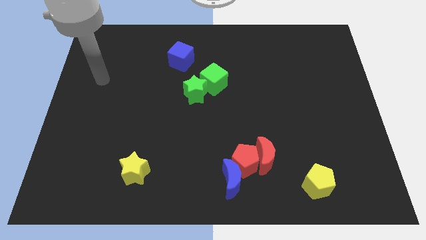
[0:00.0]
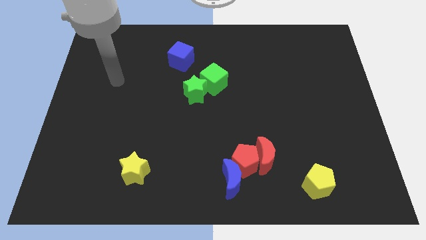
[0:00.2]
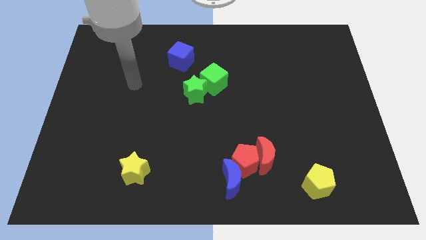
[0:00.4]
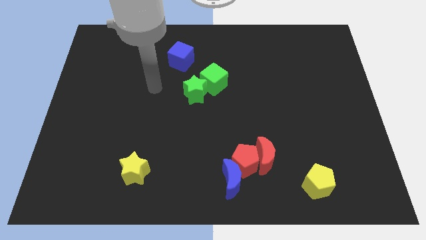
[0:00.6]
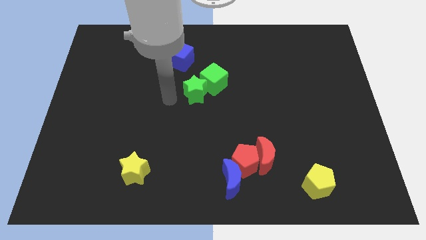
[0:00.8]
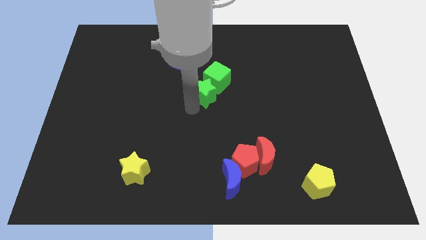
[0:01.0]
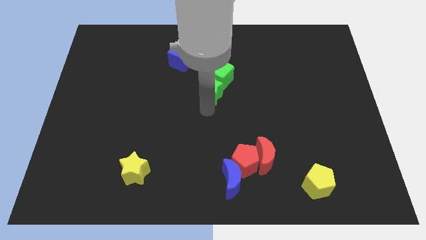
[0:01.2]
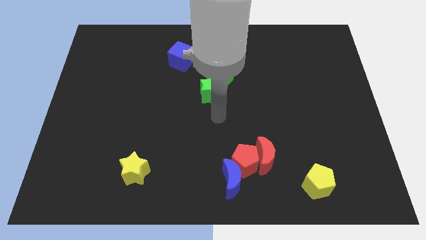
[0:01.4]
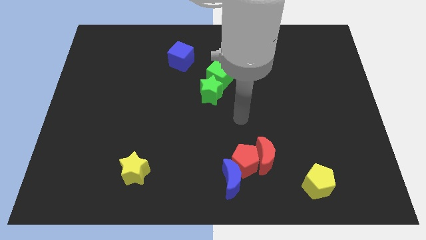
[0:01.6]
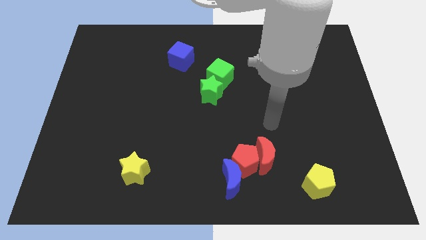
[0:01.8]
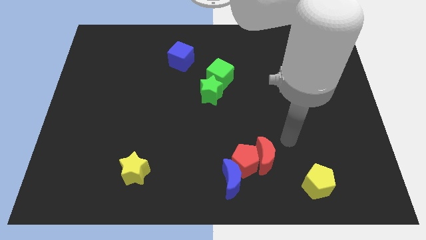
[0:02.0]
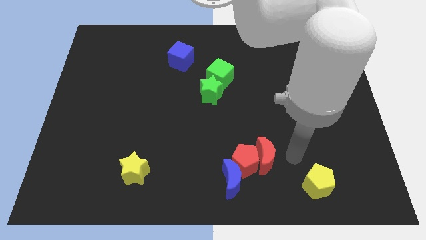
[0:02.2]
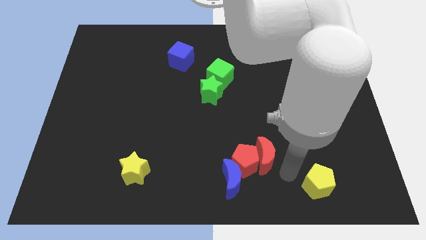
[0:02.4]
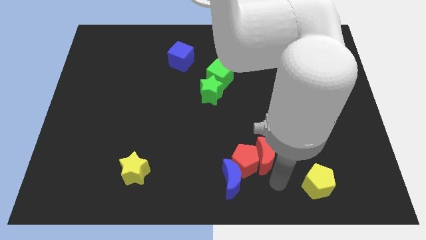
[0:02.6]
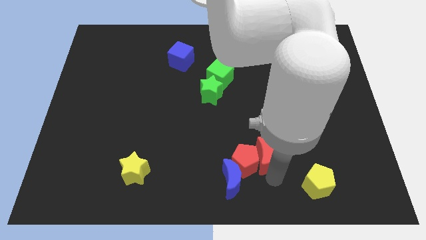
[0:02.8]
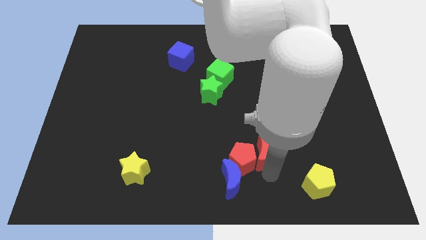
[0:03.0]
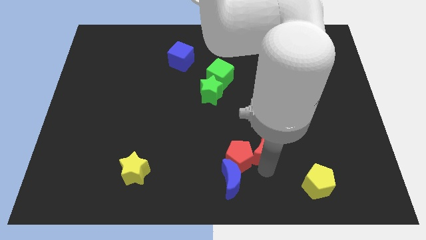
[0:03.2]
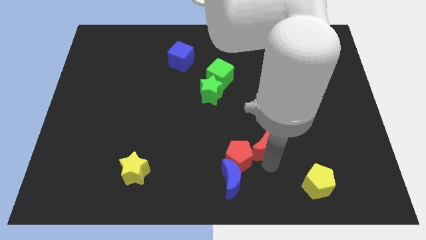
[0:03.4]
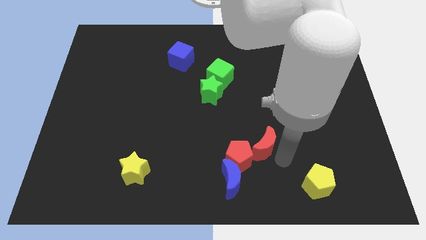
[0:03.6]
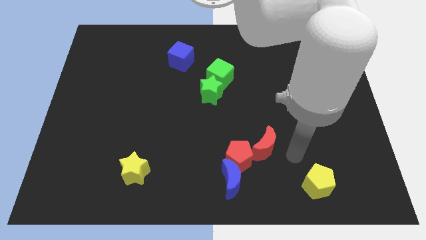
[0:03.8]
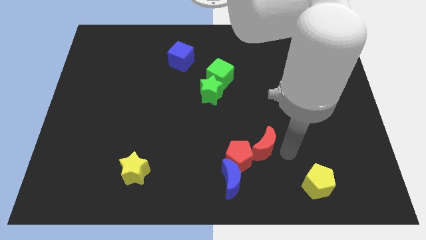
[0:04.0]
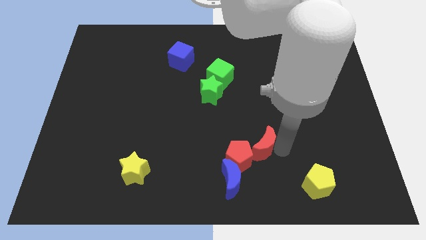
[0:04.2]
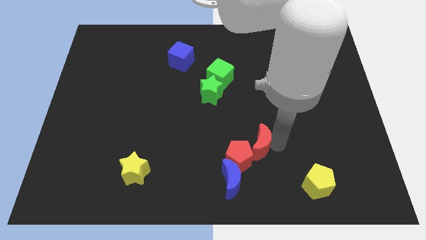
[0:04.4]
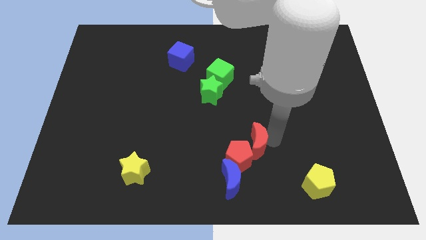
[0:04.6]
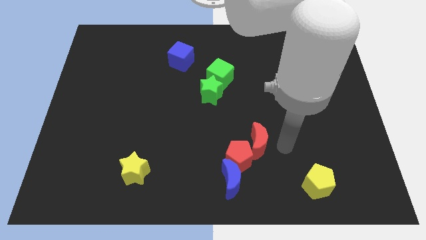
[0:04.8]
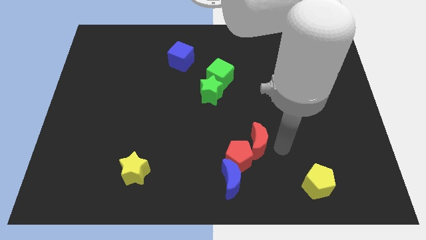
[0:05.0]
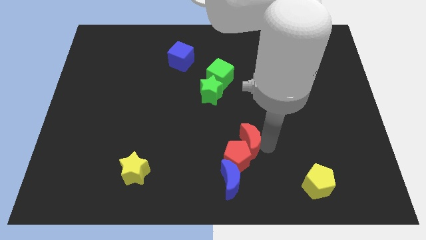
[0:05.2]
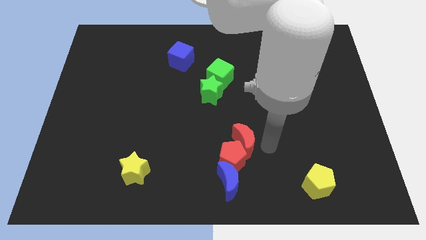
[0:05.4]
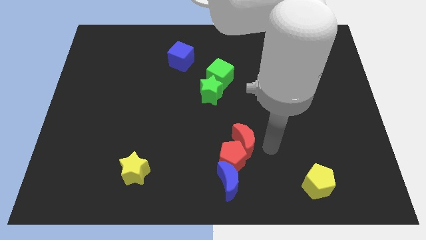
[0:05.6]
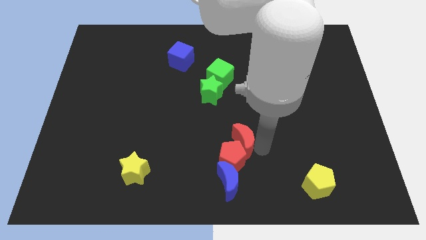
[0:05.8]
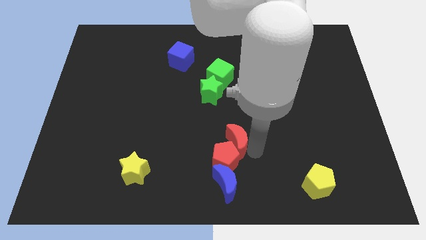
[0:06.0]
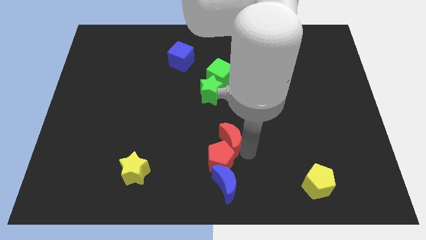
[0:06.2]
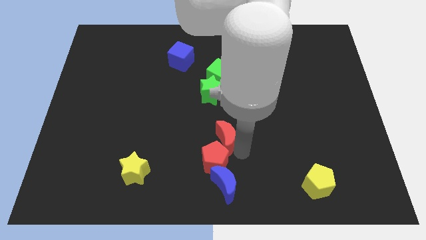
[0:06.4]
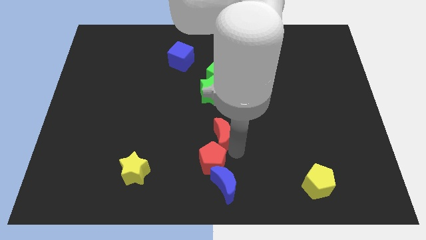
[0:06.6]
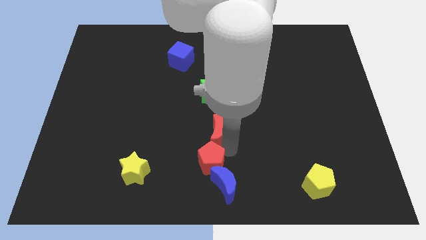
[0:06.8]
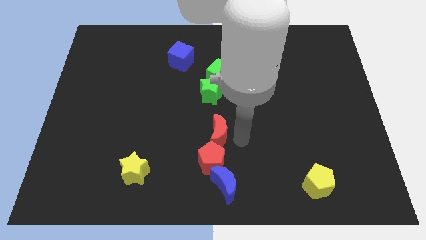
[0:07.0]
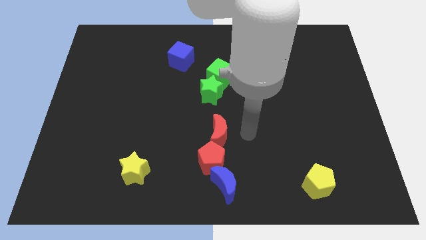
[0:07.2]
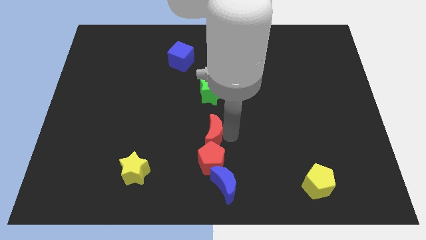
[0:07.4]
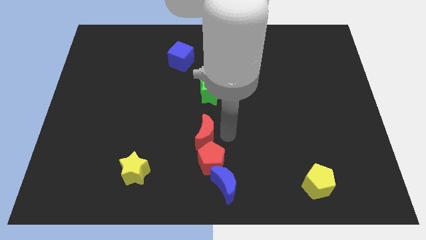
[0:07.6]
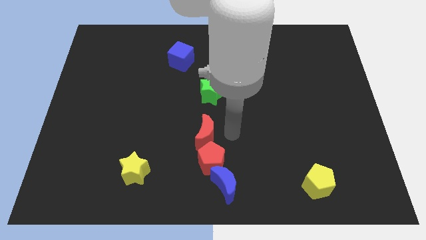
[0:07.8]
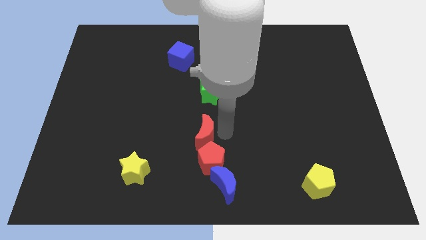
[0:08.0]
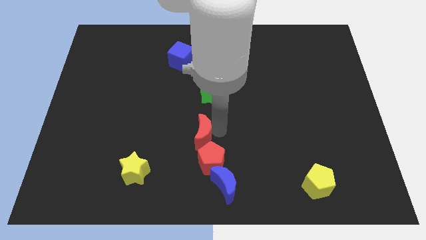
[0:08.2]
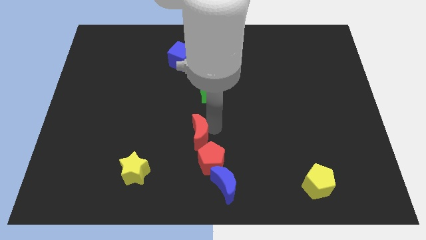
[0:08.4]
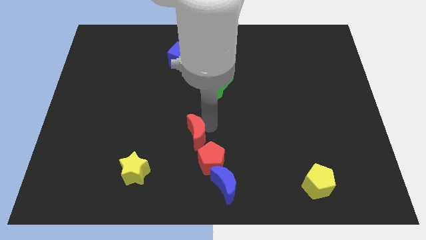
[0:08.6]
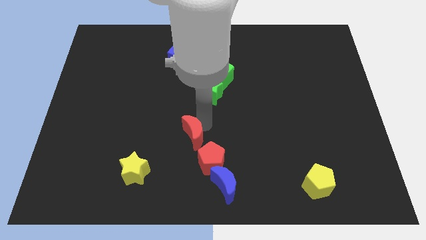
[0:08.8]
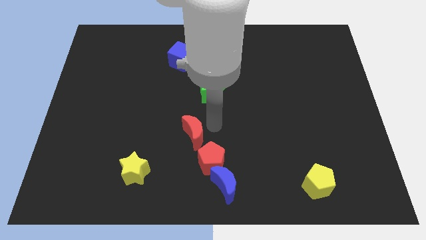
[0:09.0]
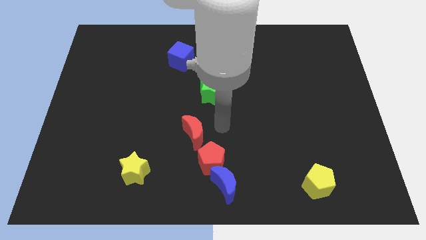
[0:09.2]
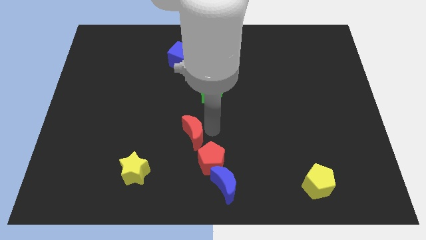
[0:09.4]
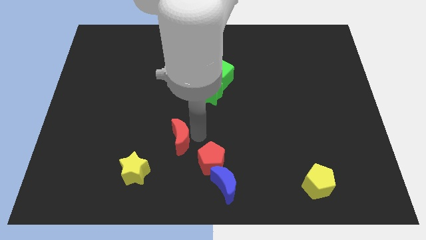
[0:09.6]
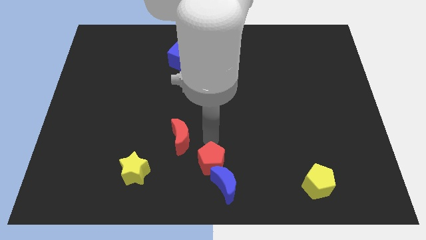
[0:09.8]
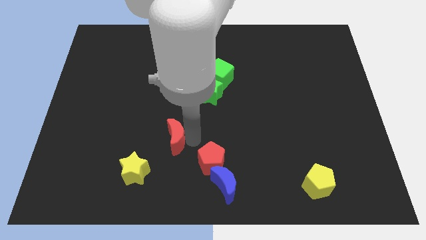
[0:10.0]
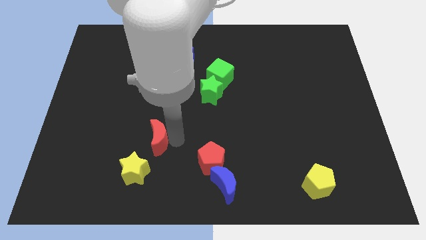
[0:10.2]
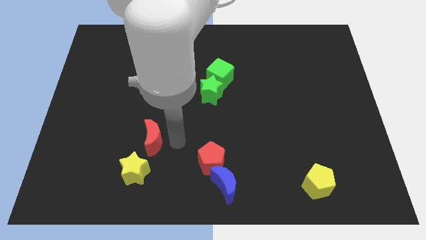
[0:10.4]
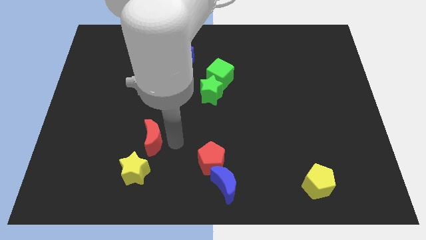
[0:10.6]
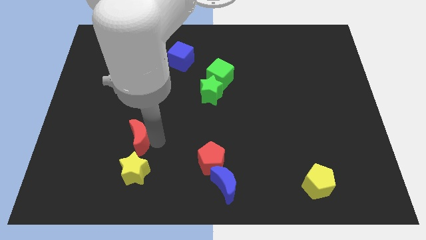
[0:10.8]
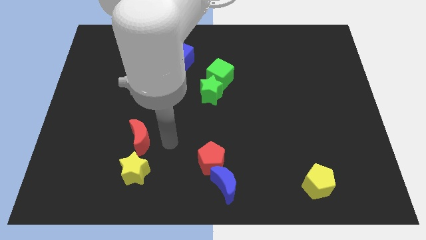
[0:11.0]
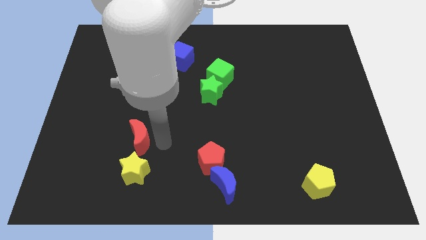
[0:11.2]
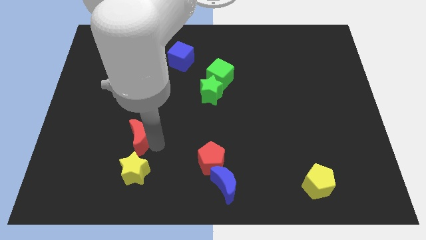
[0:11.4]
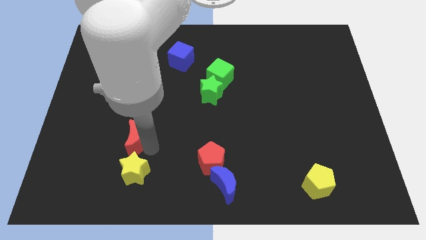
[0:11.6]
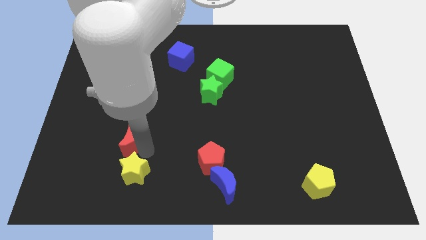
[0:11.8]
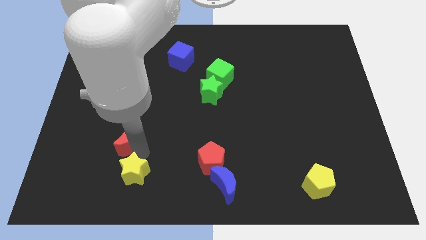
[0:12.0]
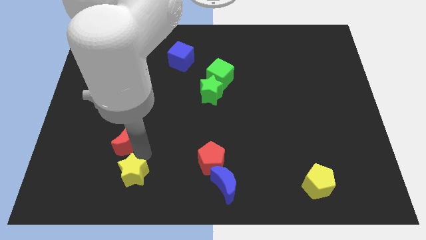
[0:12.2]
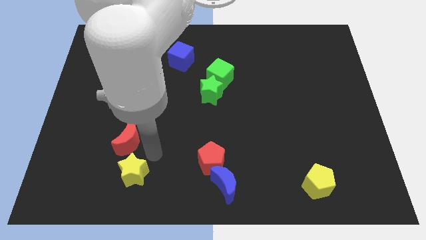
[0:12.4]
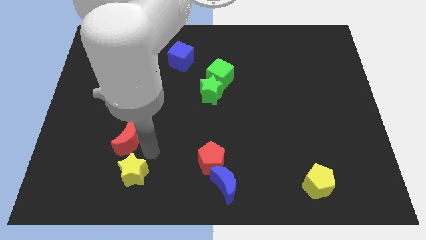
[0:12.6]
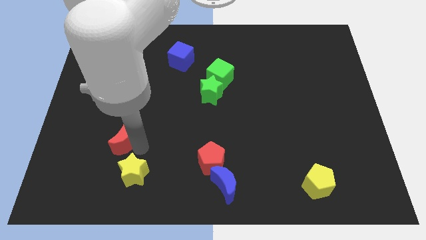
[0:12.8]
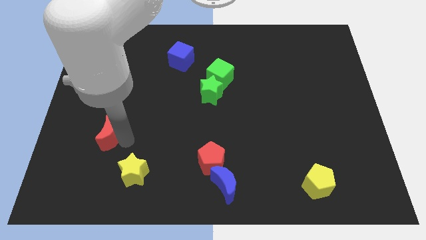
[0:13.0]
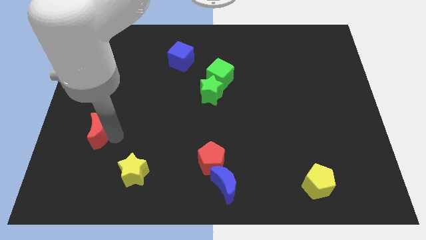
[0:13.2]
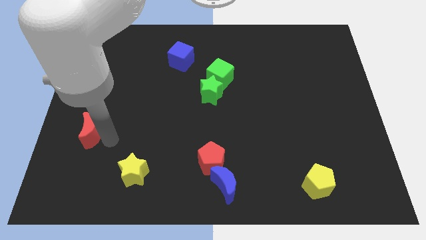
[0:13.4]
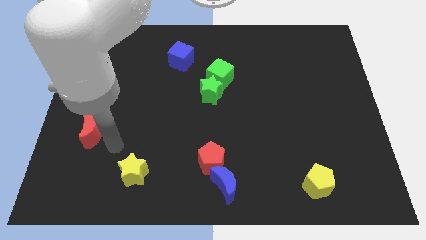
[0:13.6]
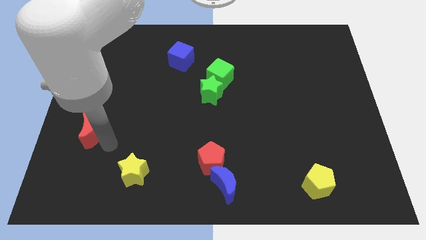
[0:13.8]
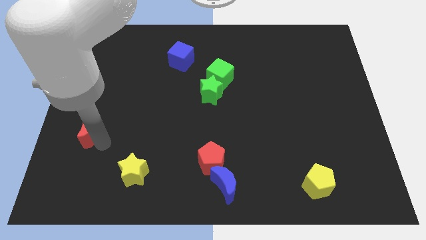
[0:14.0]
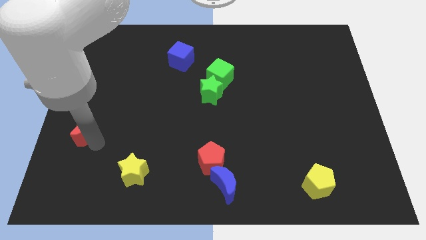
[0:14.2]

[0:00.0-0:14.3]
put the red moon to the left side of the board
